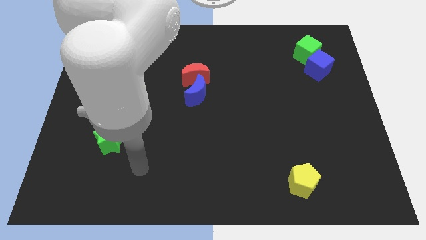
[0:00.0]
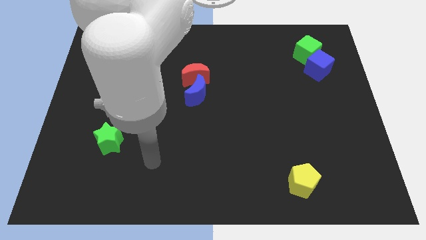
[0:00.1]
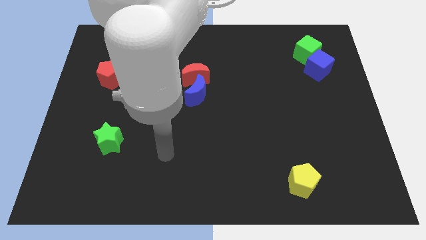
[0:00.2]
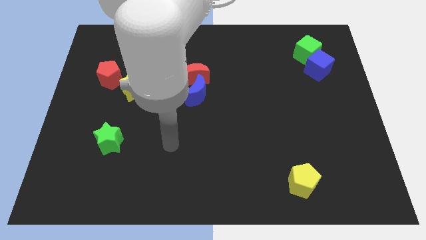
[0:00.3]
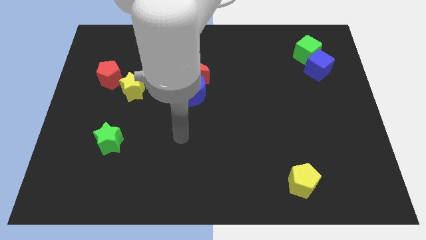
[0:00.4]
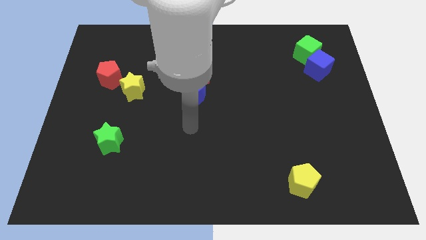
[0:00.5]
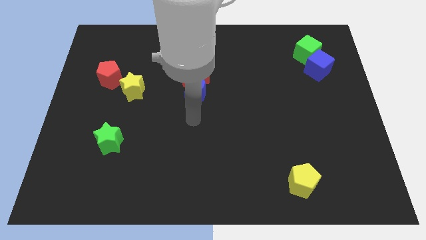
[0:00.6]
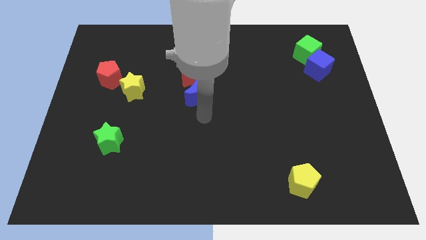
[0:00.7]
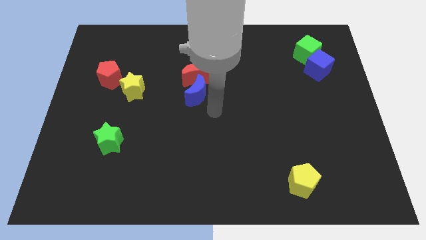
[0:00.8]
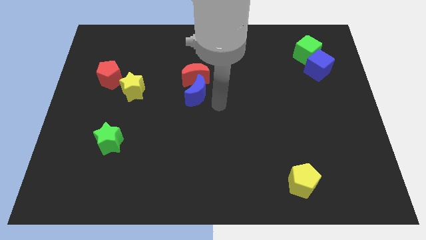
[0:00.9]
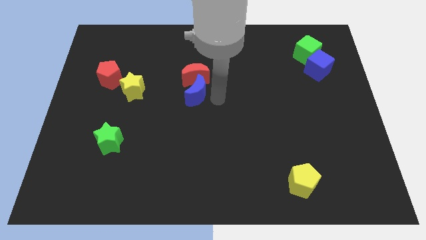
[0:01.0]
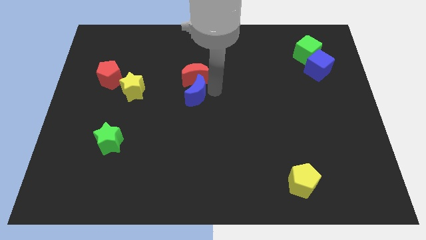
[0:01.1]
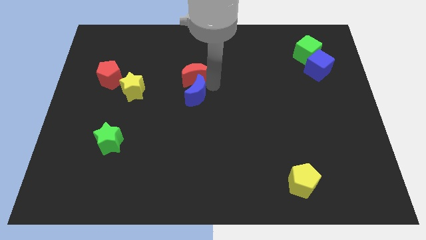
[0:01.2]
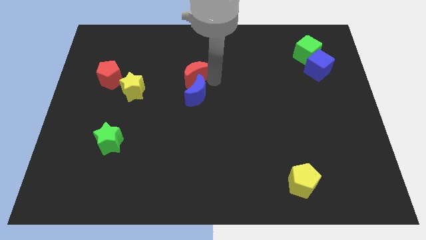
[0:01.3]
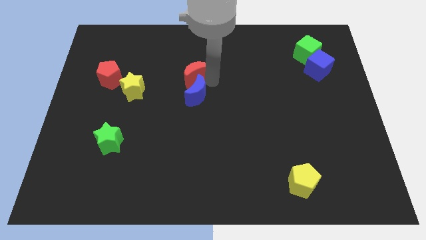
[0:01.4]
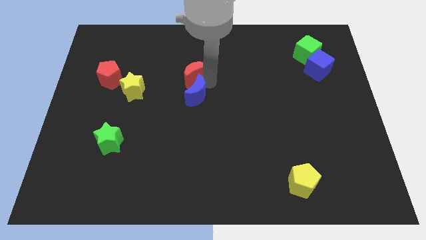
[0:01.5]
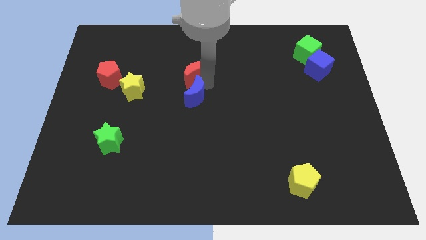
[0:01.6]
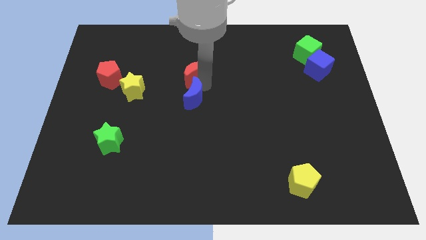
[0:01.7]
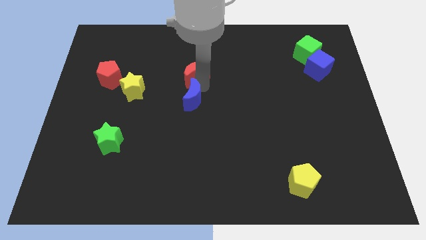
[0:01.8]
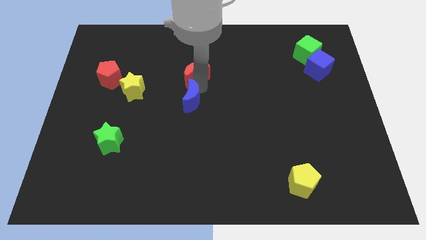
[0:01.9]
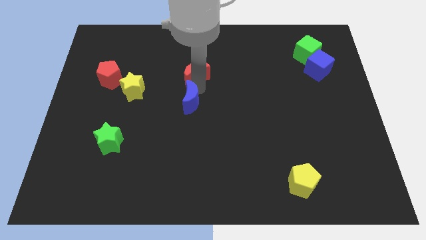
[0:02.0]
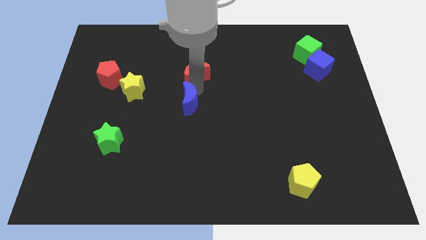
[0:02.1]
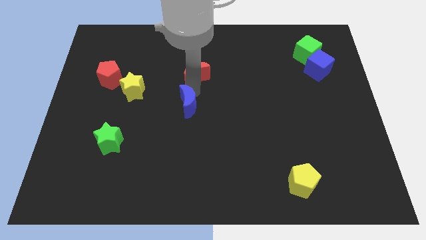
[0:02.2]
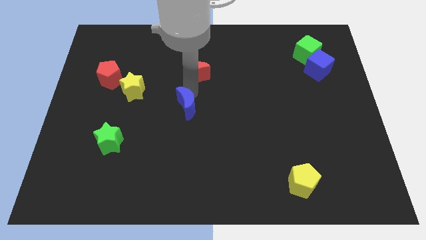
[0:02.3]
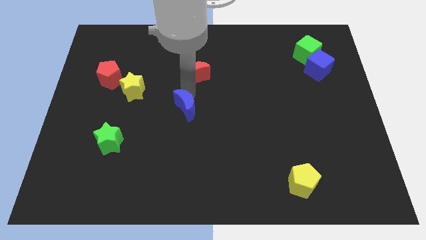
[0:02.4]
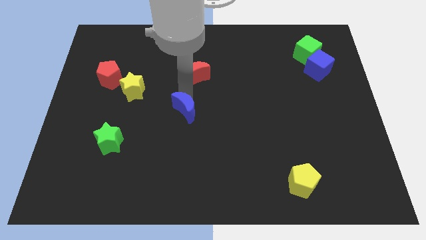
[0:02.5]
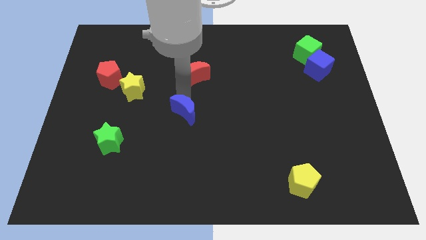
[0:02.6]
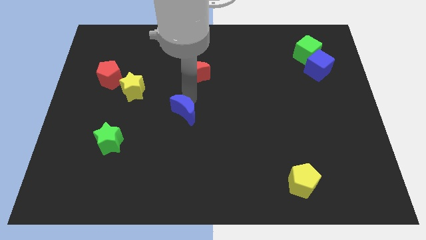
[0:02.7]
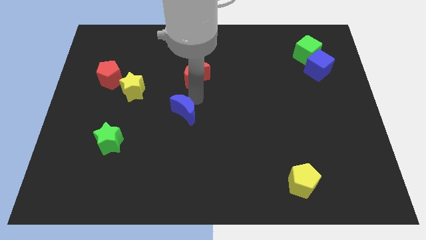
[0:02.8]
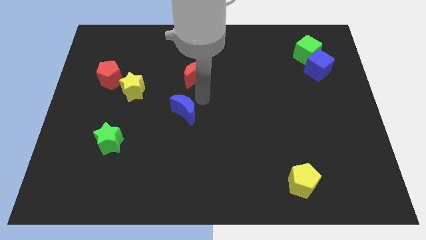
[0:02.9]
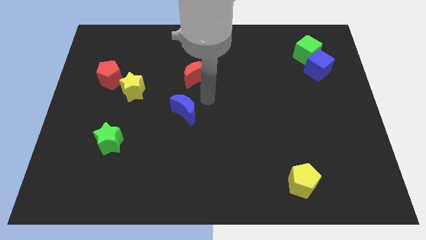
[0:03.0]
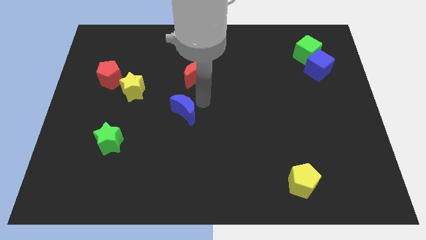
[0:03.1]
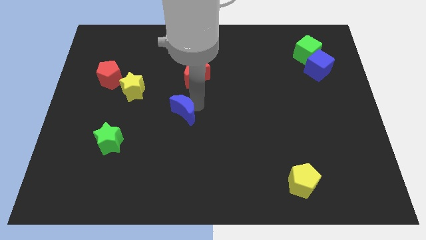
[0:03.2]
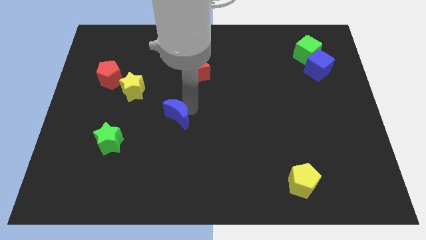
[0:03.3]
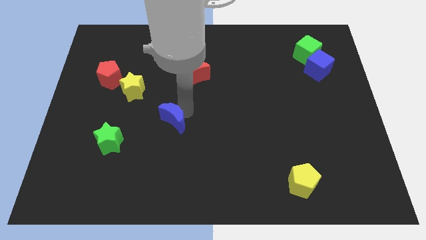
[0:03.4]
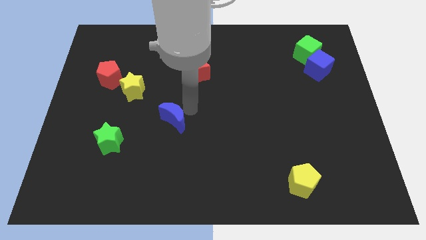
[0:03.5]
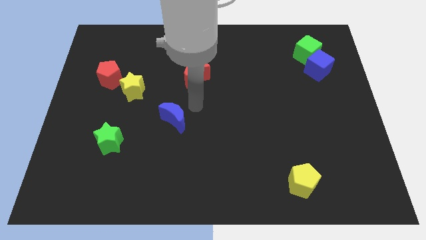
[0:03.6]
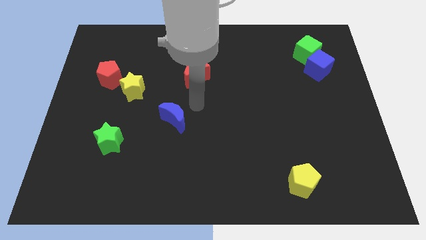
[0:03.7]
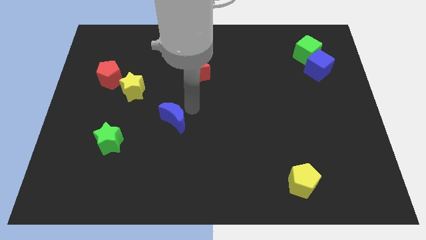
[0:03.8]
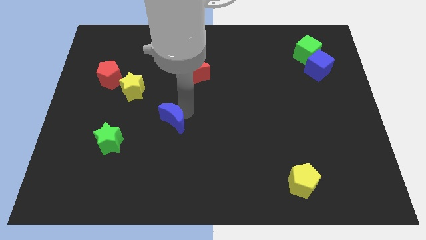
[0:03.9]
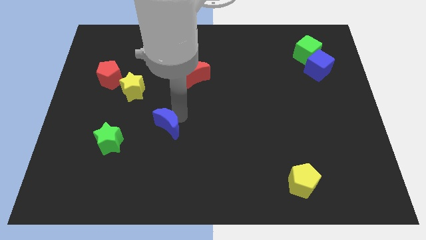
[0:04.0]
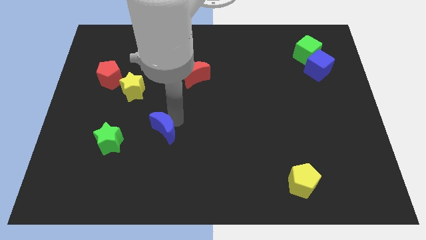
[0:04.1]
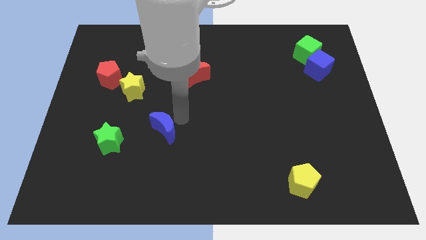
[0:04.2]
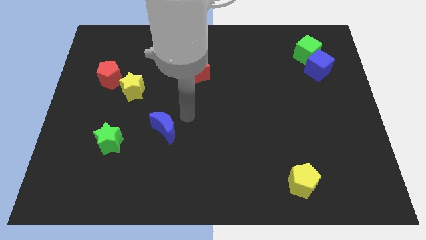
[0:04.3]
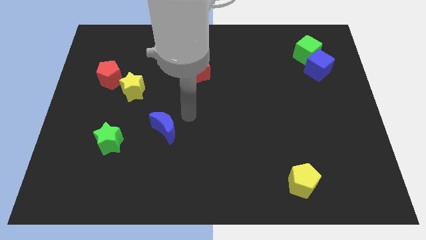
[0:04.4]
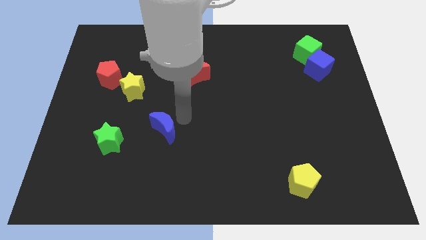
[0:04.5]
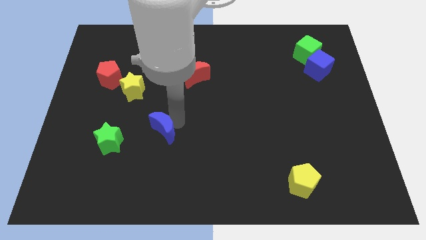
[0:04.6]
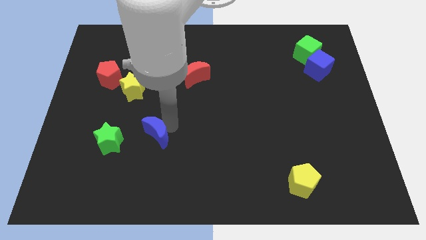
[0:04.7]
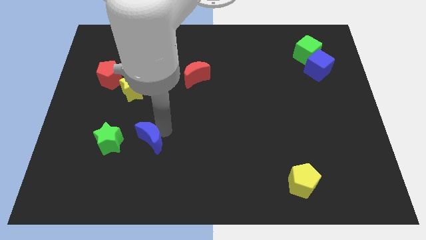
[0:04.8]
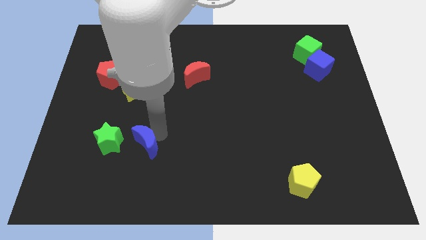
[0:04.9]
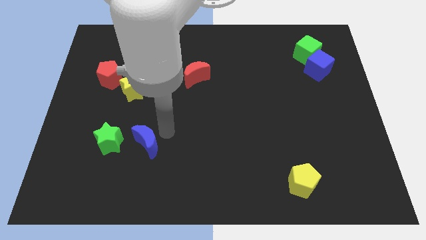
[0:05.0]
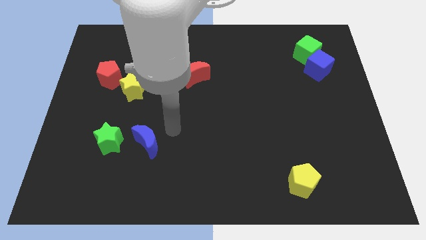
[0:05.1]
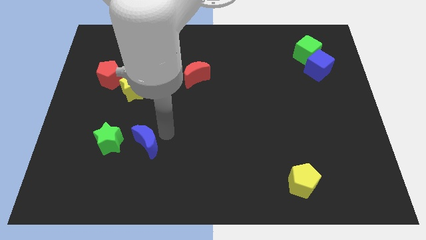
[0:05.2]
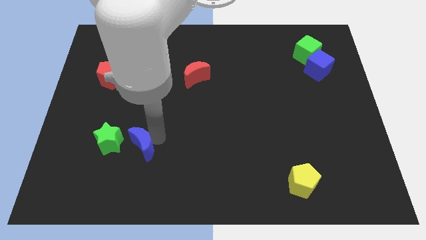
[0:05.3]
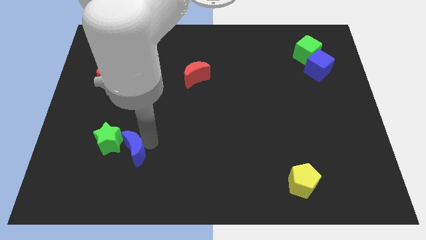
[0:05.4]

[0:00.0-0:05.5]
move the blue moon downwards and to the left

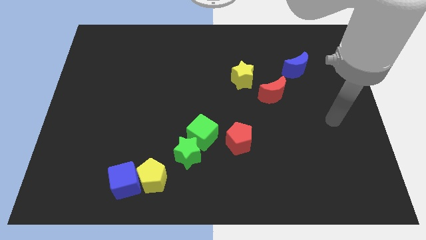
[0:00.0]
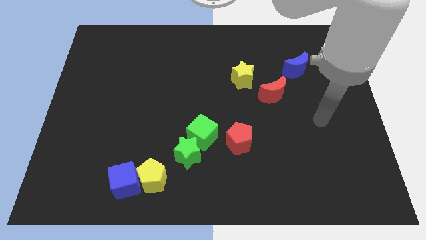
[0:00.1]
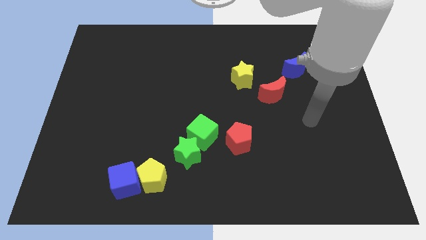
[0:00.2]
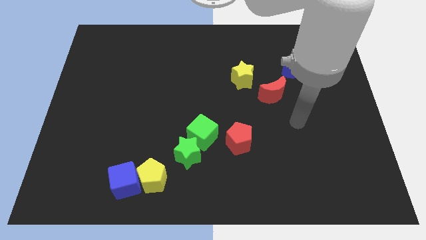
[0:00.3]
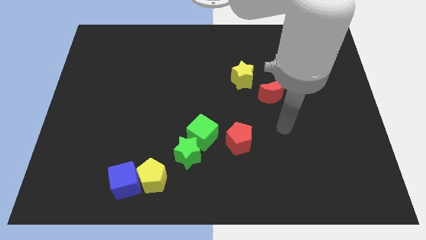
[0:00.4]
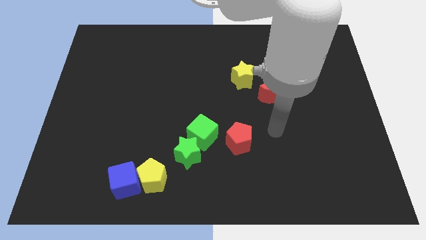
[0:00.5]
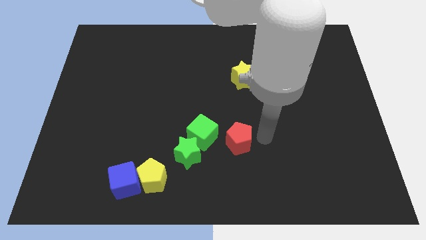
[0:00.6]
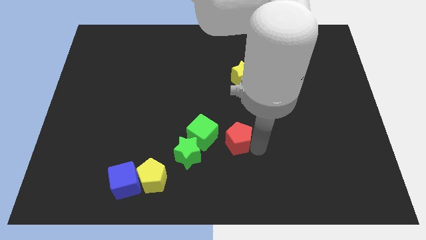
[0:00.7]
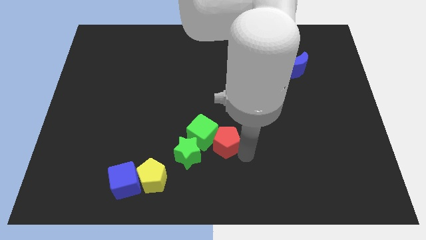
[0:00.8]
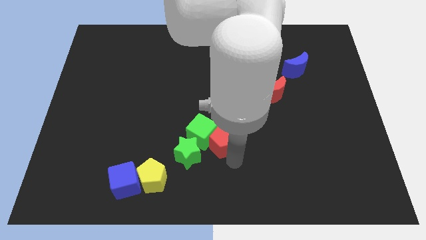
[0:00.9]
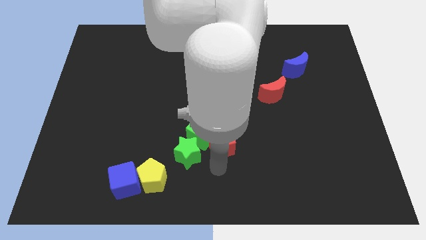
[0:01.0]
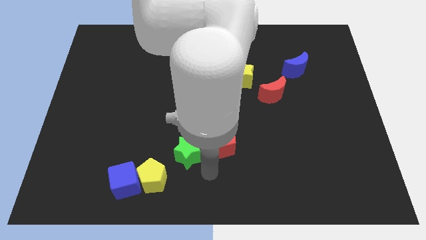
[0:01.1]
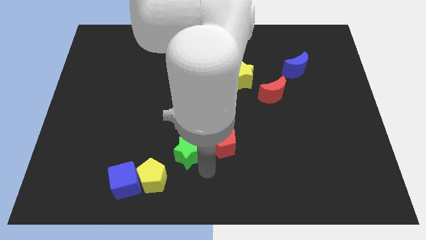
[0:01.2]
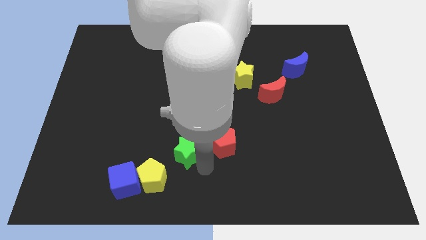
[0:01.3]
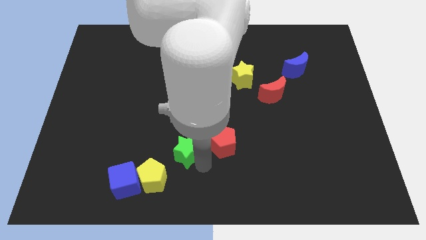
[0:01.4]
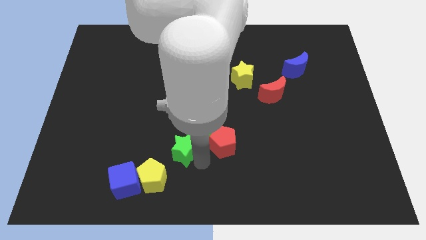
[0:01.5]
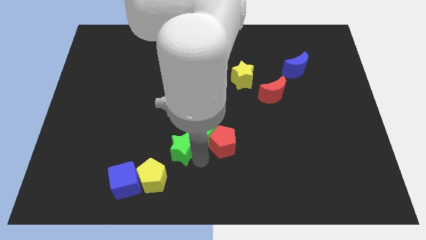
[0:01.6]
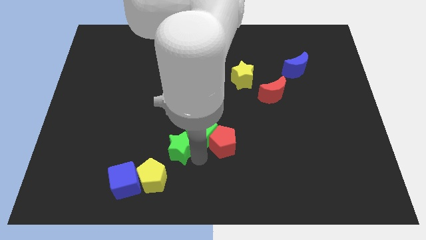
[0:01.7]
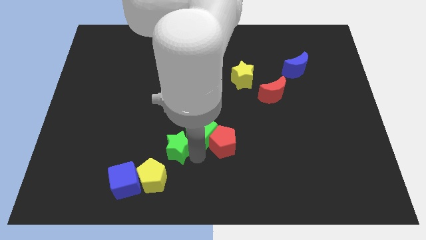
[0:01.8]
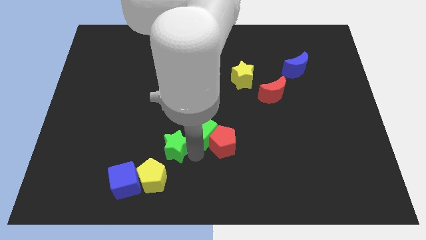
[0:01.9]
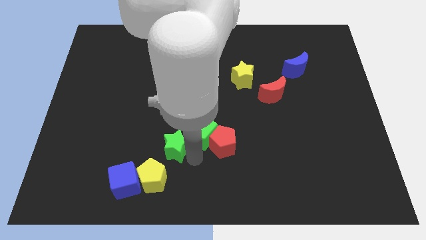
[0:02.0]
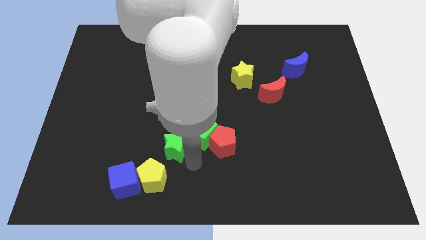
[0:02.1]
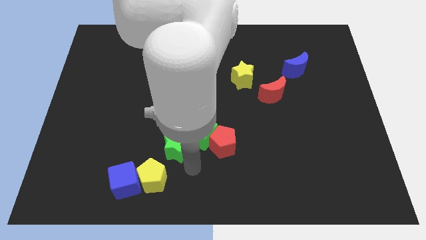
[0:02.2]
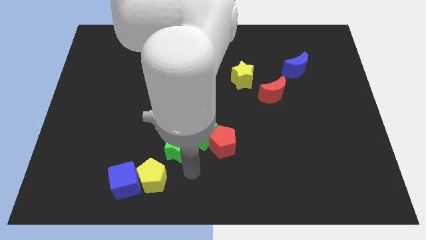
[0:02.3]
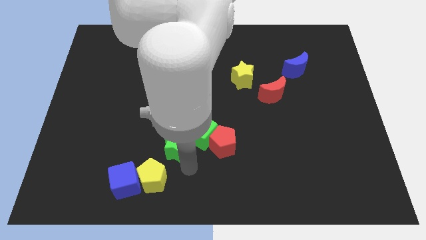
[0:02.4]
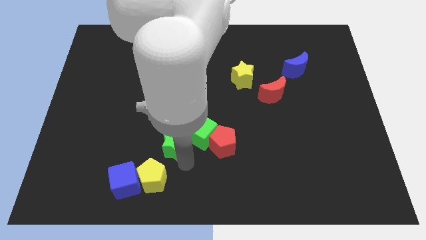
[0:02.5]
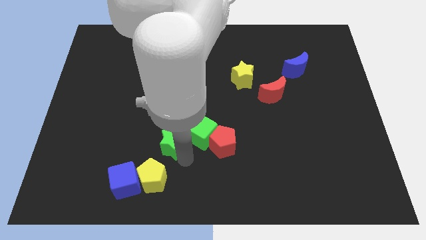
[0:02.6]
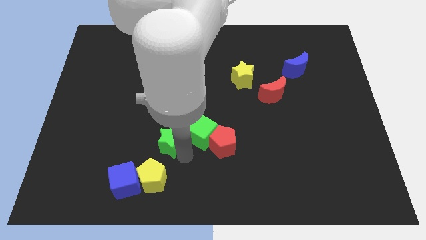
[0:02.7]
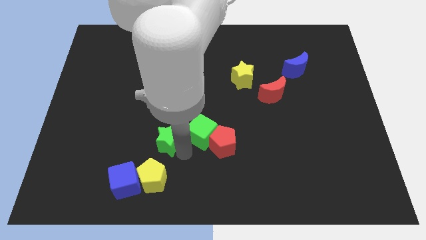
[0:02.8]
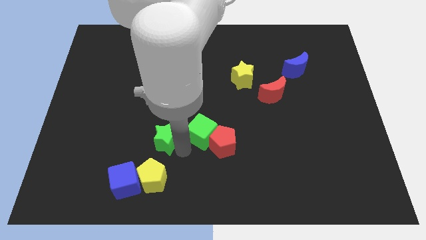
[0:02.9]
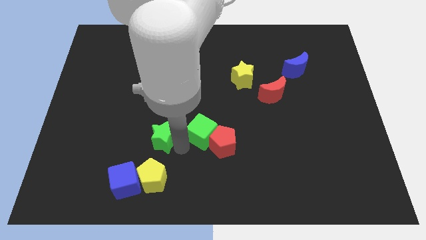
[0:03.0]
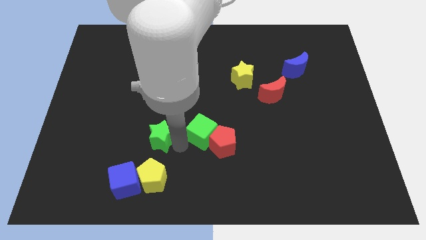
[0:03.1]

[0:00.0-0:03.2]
slightly move the green star up and left
